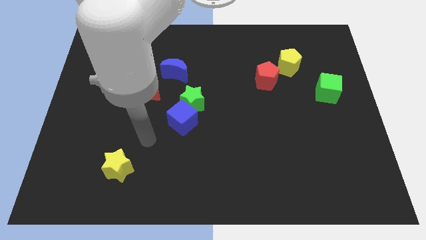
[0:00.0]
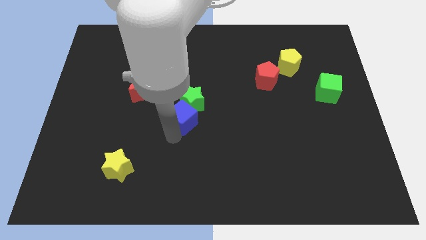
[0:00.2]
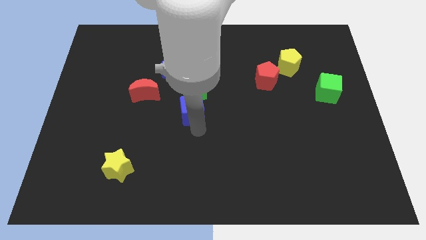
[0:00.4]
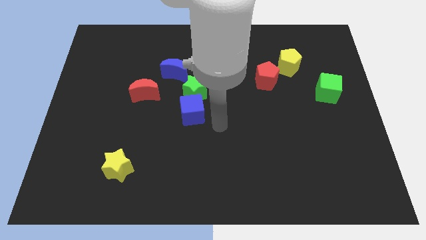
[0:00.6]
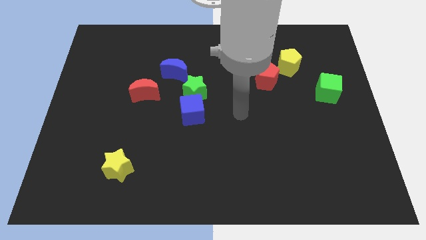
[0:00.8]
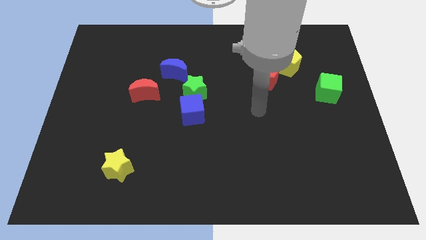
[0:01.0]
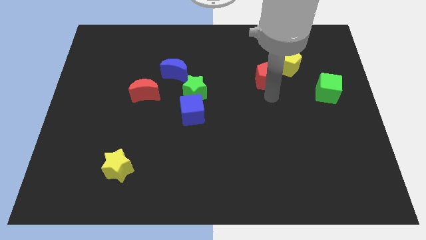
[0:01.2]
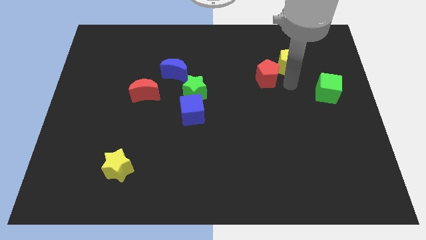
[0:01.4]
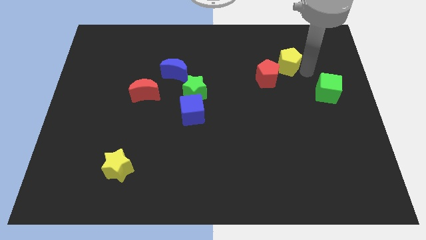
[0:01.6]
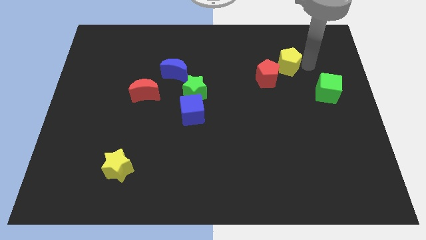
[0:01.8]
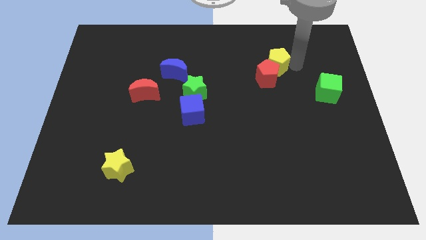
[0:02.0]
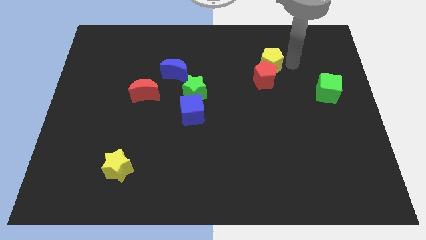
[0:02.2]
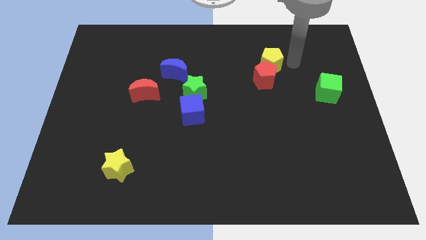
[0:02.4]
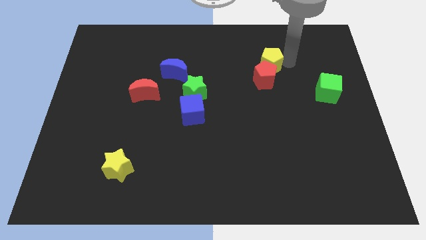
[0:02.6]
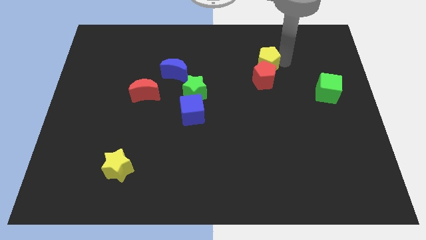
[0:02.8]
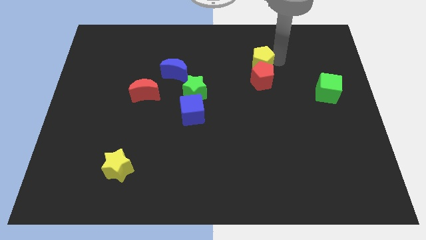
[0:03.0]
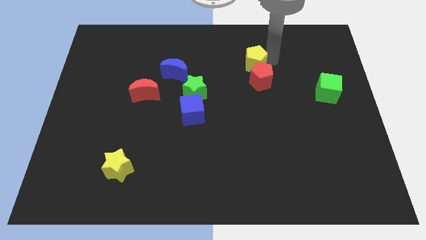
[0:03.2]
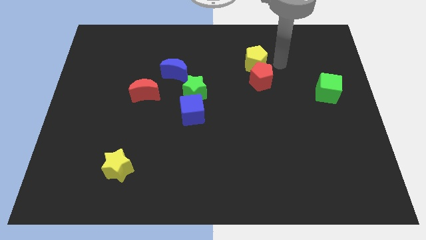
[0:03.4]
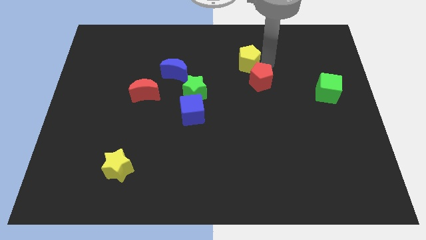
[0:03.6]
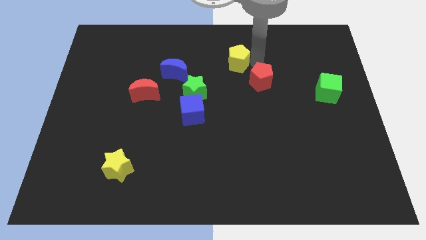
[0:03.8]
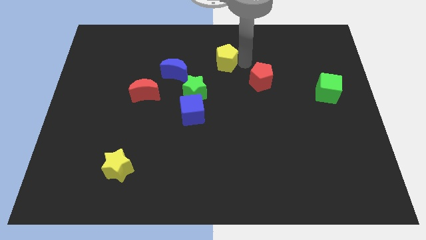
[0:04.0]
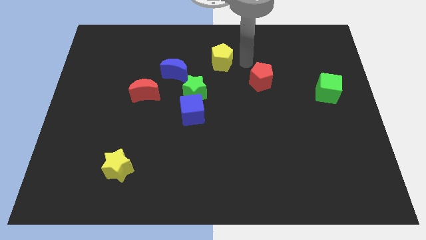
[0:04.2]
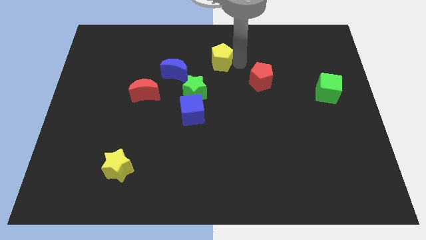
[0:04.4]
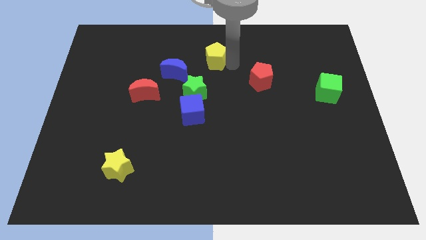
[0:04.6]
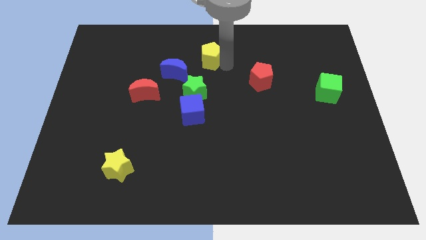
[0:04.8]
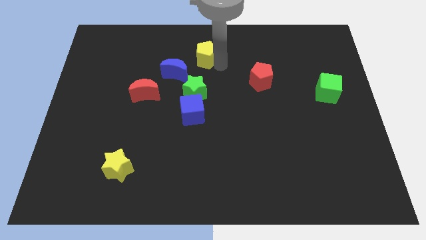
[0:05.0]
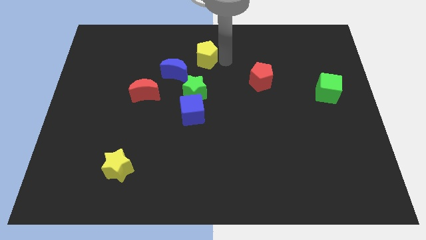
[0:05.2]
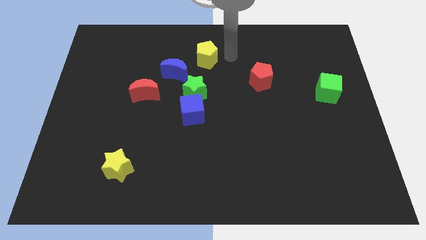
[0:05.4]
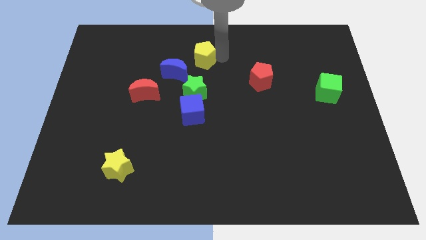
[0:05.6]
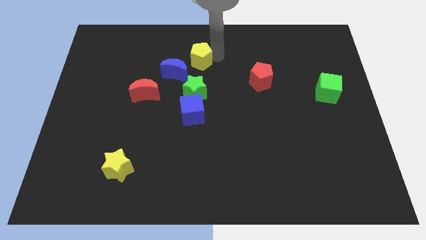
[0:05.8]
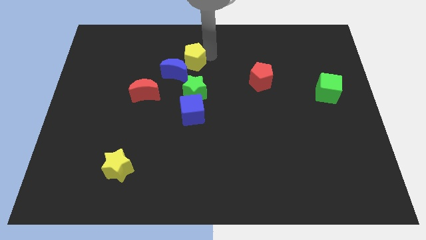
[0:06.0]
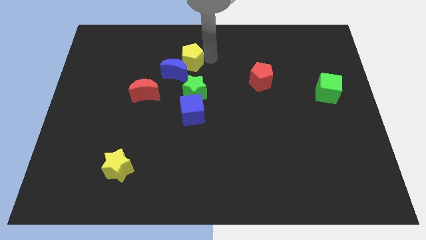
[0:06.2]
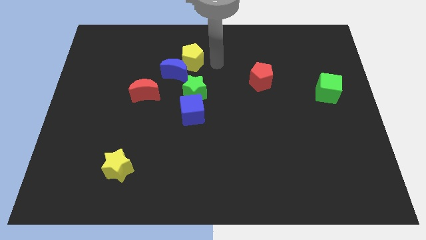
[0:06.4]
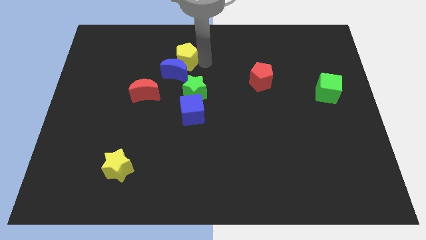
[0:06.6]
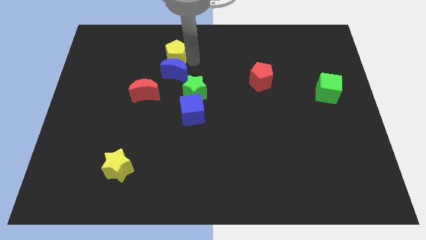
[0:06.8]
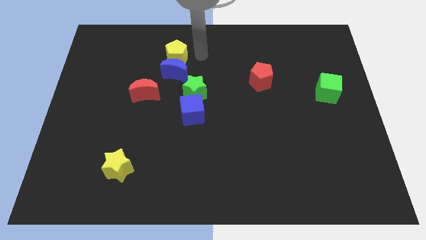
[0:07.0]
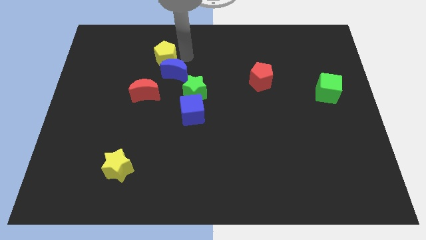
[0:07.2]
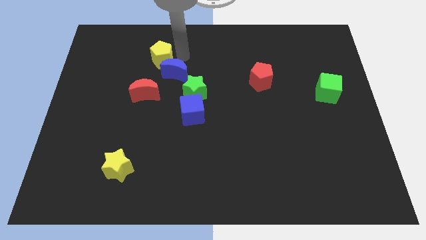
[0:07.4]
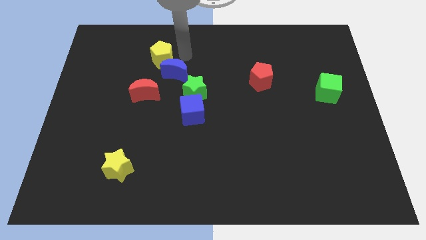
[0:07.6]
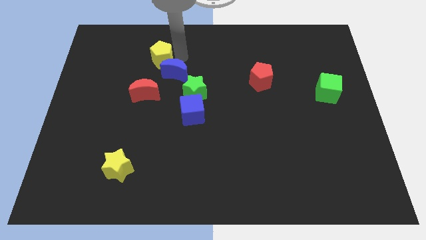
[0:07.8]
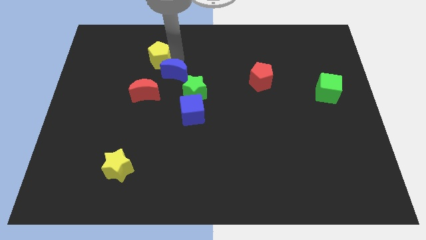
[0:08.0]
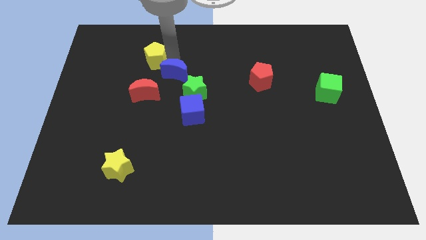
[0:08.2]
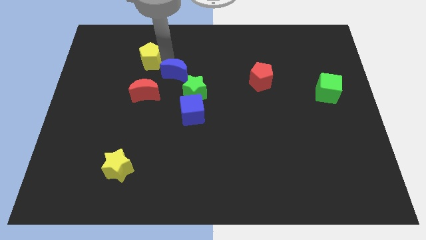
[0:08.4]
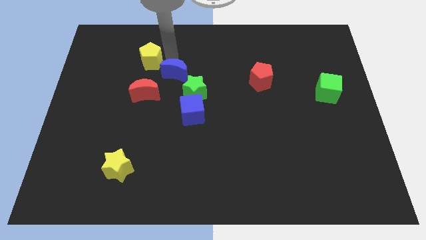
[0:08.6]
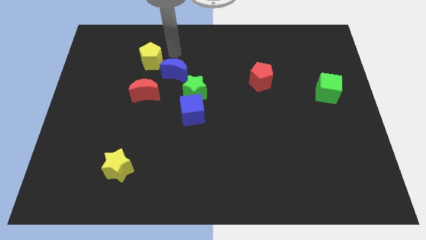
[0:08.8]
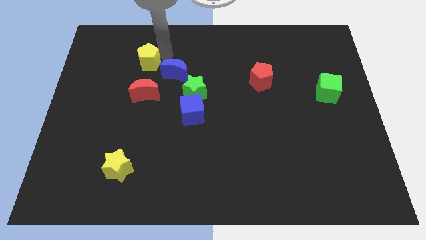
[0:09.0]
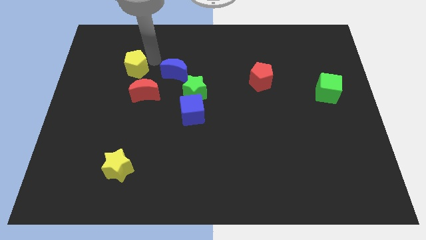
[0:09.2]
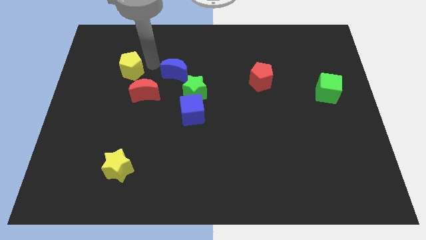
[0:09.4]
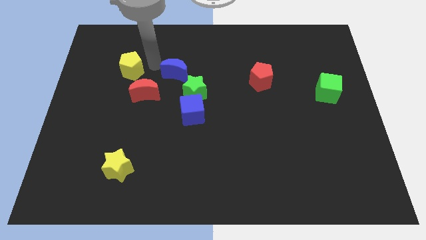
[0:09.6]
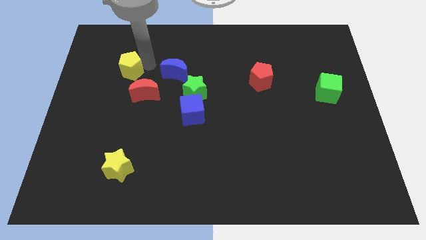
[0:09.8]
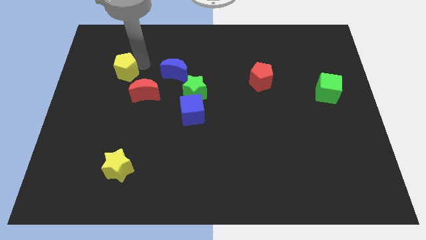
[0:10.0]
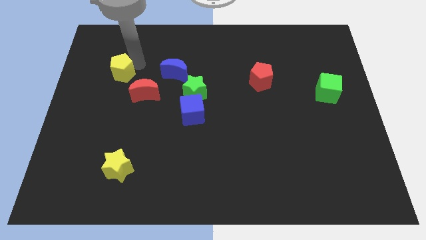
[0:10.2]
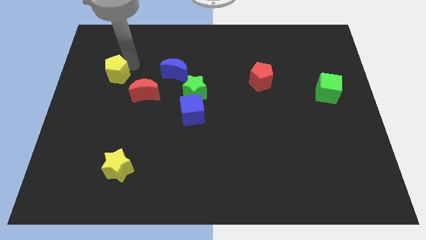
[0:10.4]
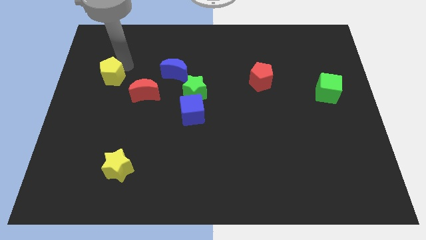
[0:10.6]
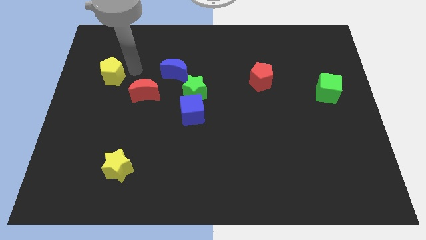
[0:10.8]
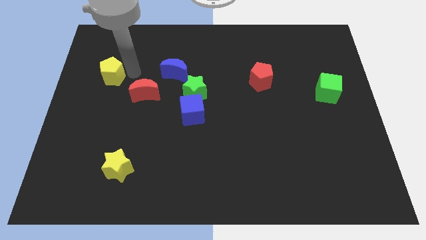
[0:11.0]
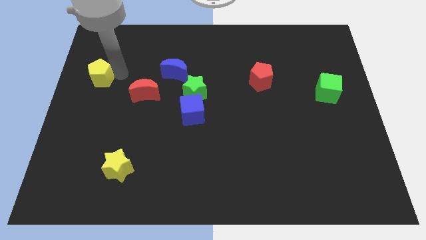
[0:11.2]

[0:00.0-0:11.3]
slide the yellow pentagon to the center left
